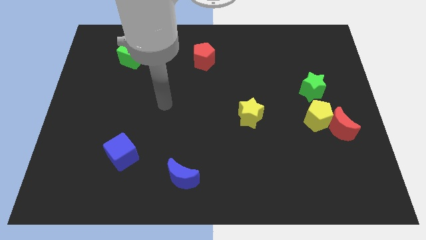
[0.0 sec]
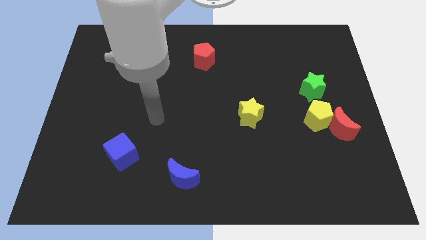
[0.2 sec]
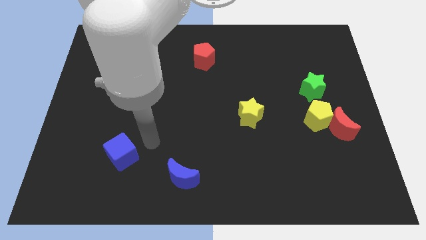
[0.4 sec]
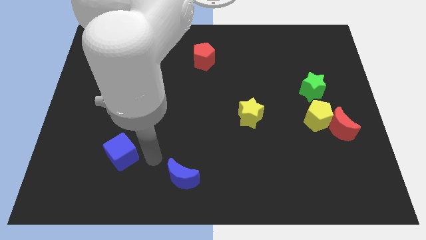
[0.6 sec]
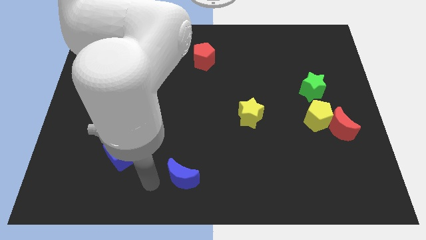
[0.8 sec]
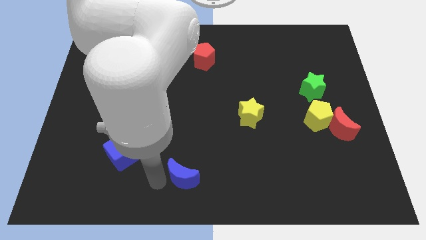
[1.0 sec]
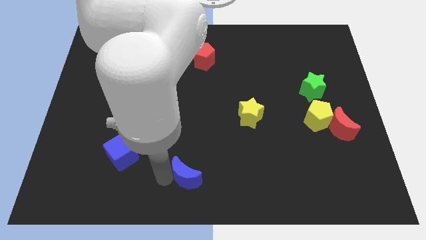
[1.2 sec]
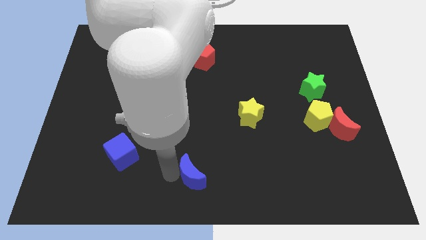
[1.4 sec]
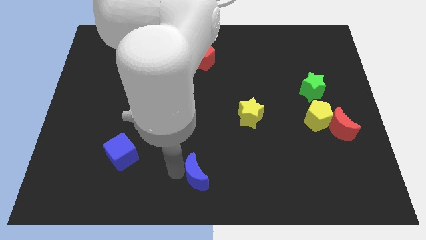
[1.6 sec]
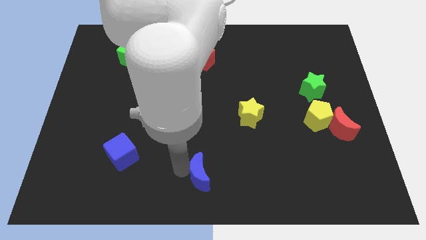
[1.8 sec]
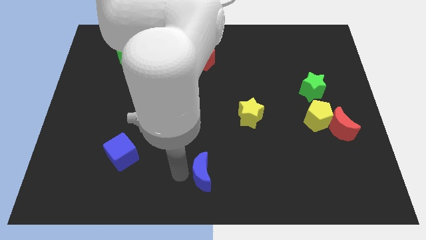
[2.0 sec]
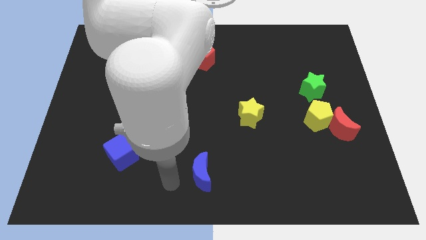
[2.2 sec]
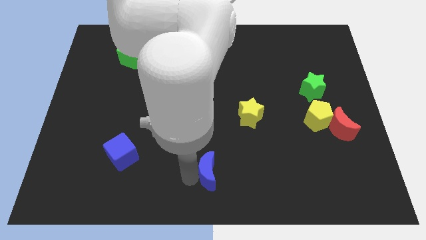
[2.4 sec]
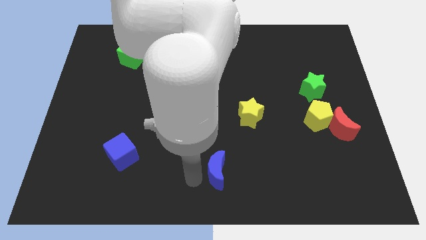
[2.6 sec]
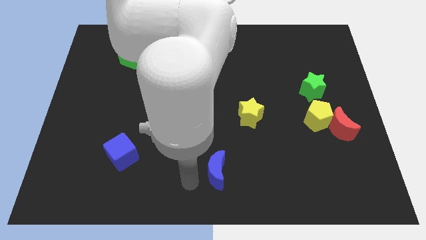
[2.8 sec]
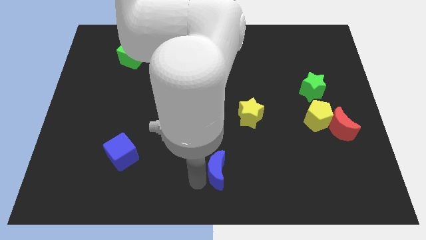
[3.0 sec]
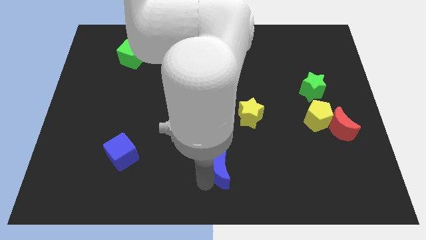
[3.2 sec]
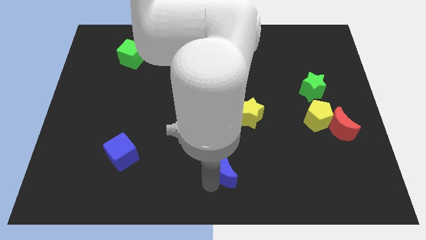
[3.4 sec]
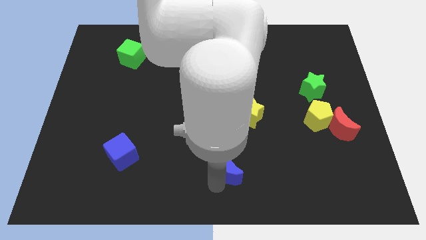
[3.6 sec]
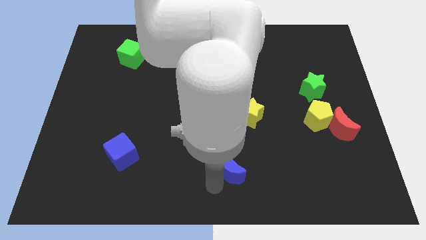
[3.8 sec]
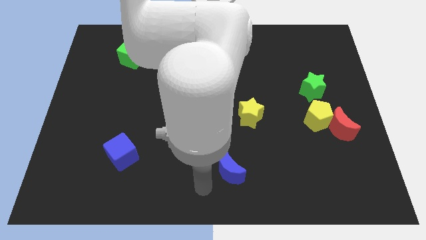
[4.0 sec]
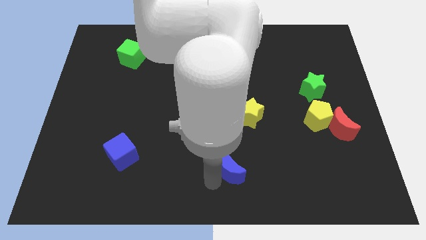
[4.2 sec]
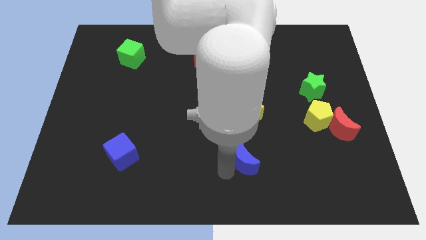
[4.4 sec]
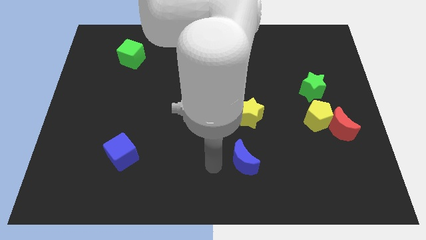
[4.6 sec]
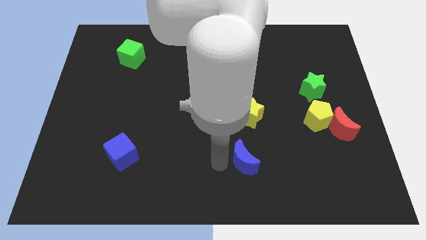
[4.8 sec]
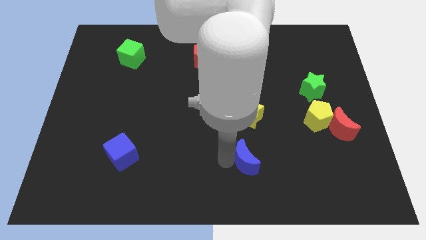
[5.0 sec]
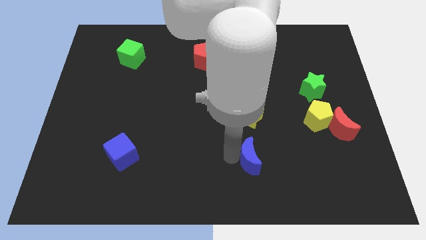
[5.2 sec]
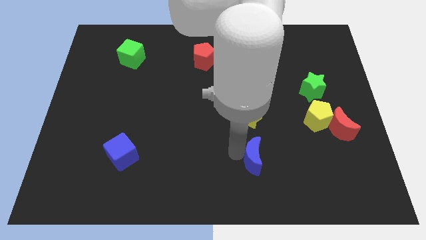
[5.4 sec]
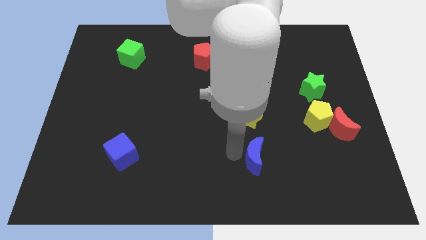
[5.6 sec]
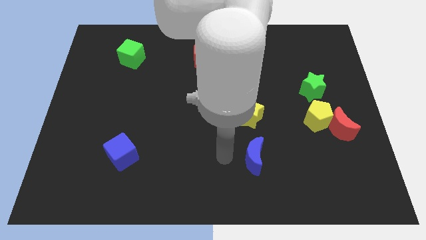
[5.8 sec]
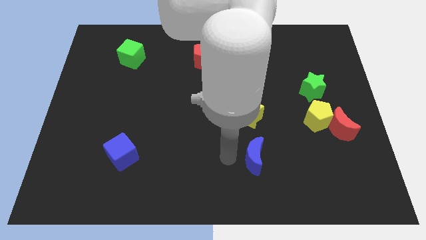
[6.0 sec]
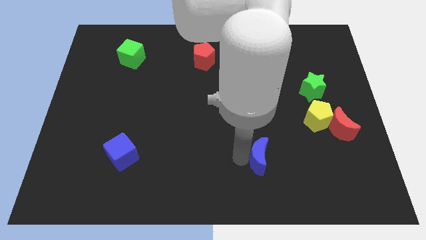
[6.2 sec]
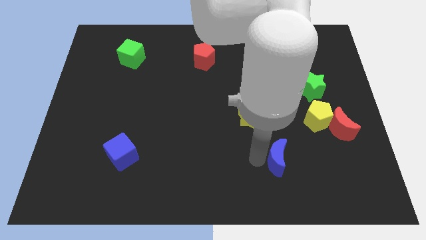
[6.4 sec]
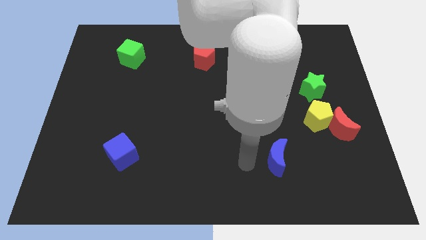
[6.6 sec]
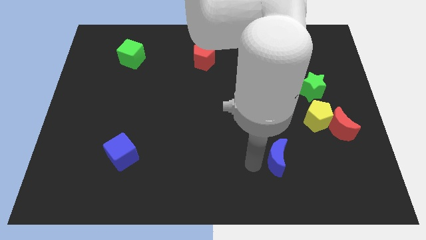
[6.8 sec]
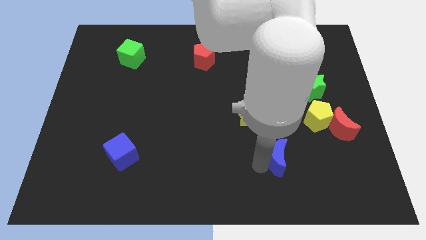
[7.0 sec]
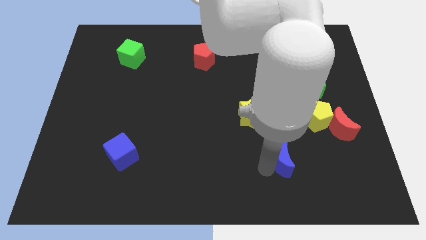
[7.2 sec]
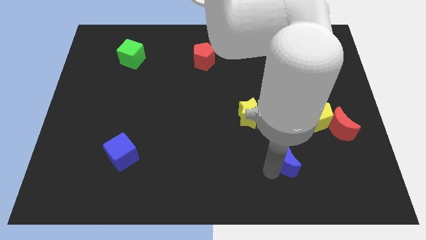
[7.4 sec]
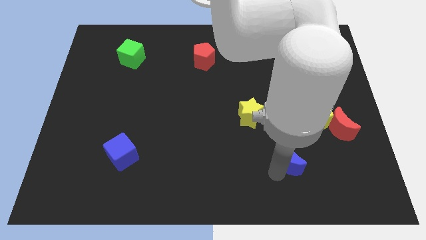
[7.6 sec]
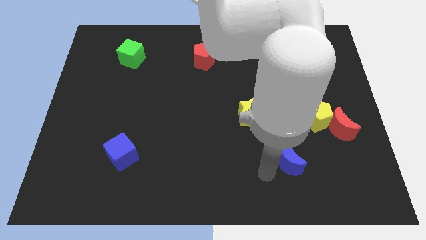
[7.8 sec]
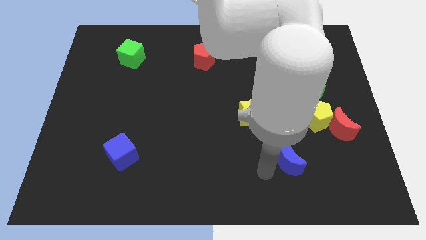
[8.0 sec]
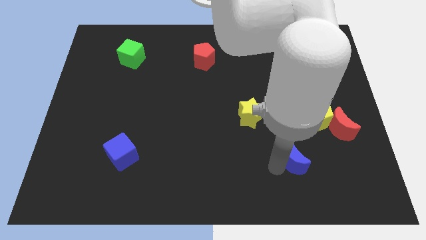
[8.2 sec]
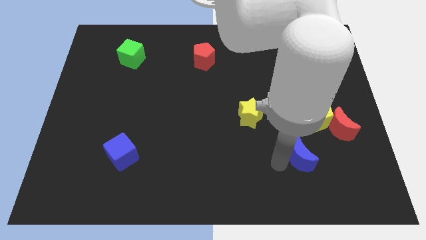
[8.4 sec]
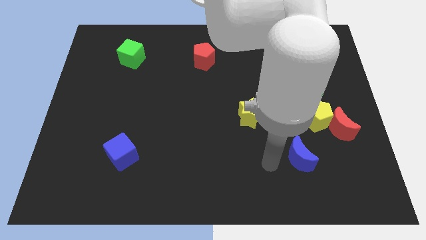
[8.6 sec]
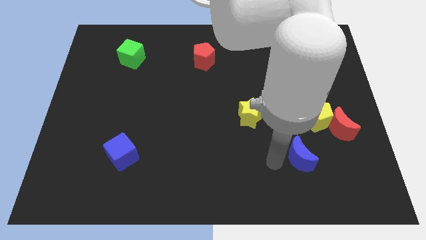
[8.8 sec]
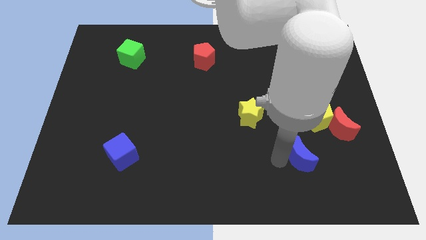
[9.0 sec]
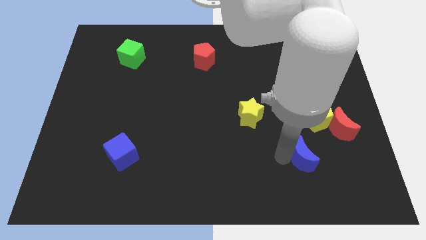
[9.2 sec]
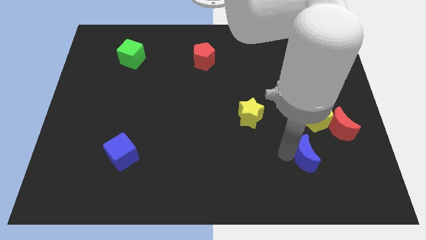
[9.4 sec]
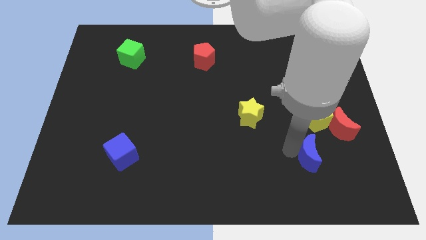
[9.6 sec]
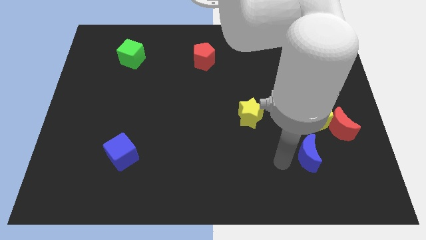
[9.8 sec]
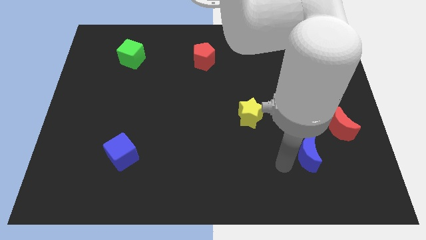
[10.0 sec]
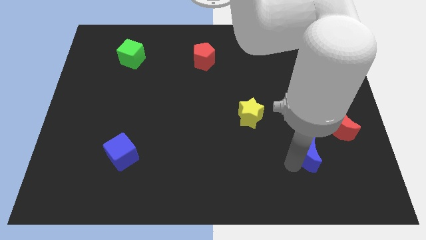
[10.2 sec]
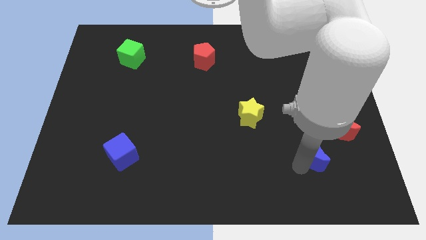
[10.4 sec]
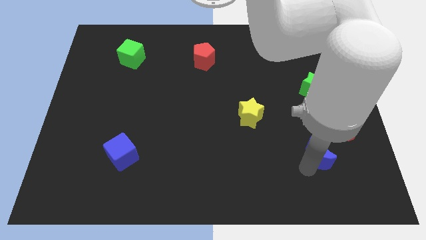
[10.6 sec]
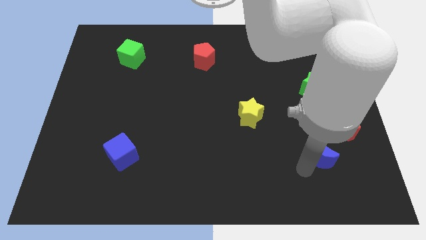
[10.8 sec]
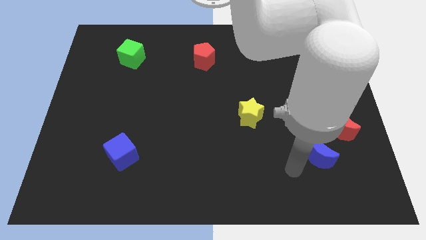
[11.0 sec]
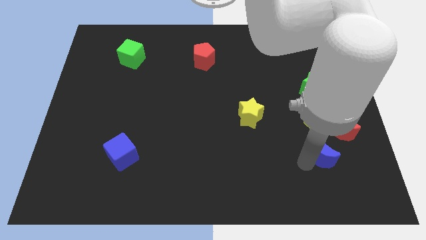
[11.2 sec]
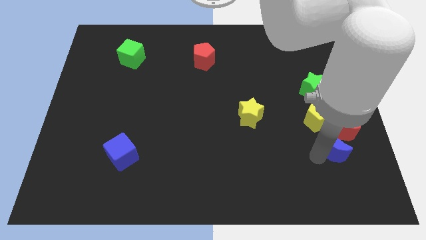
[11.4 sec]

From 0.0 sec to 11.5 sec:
put the blue moon next to the red moon
